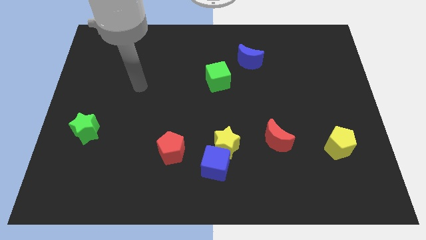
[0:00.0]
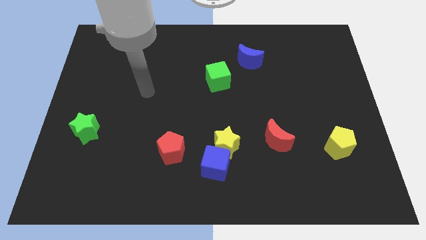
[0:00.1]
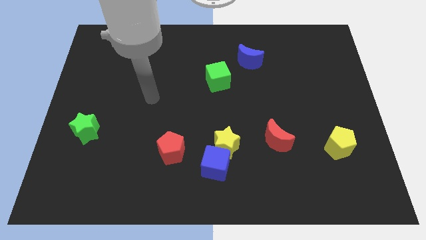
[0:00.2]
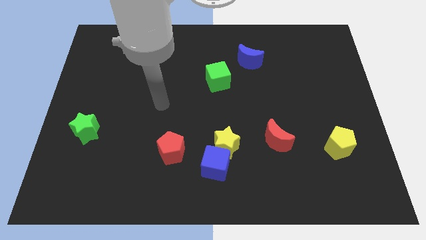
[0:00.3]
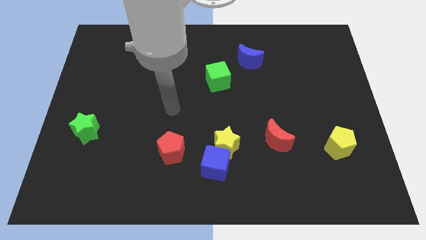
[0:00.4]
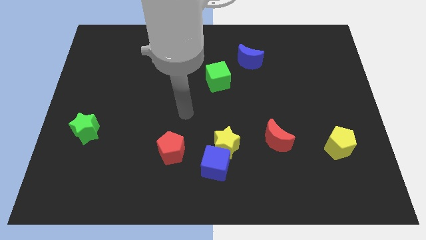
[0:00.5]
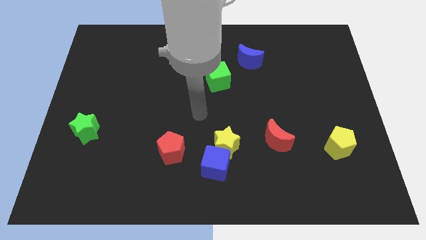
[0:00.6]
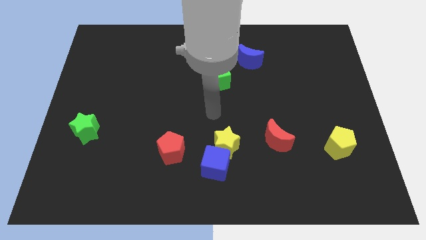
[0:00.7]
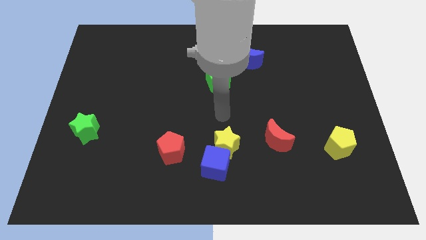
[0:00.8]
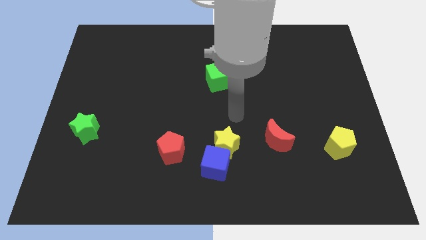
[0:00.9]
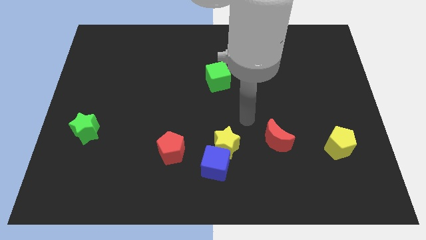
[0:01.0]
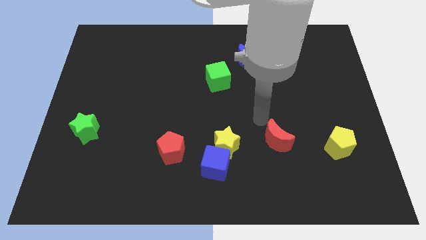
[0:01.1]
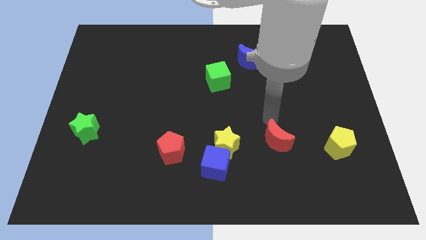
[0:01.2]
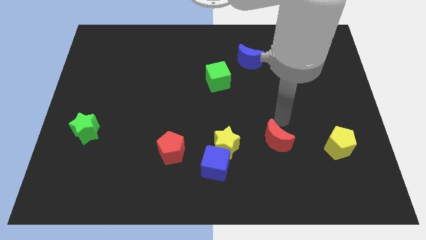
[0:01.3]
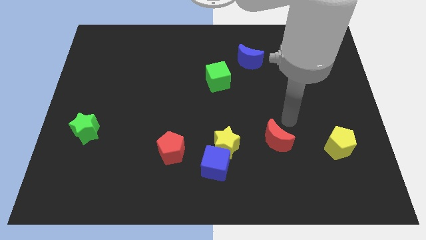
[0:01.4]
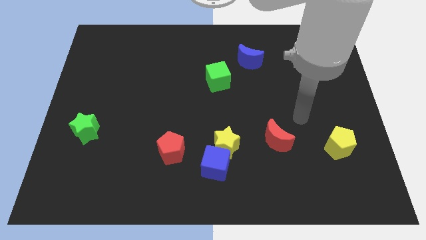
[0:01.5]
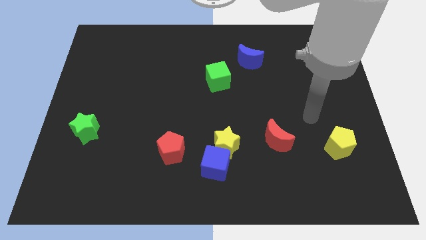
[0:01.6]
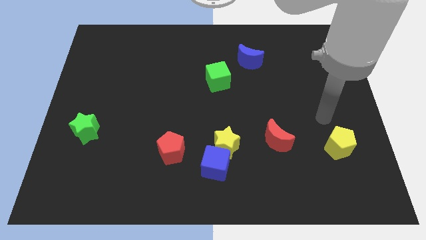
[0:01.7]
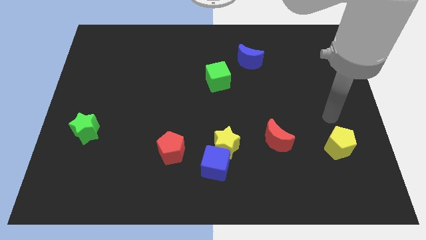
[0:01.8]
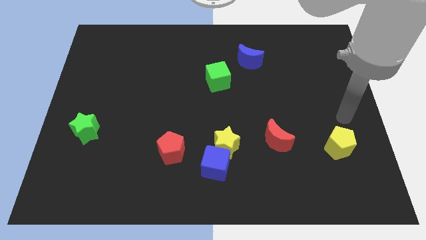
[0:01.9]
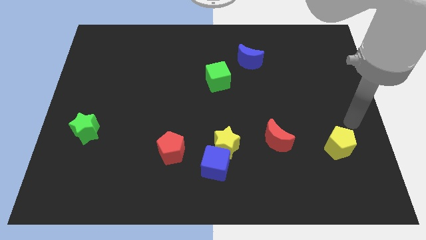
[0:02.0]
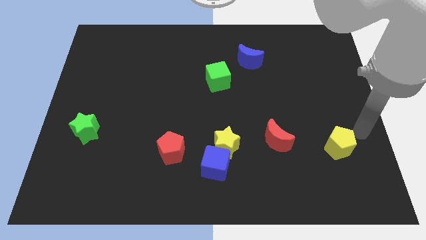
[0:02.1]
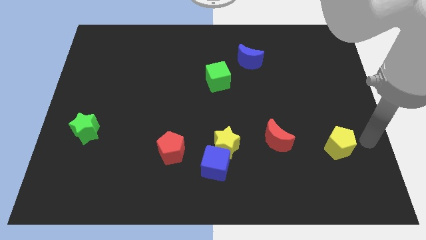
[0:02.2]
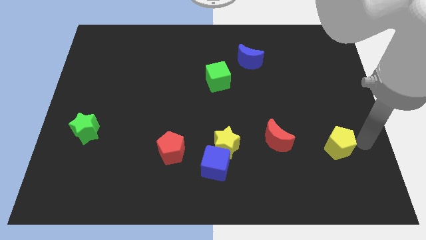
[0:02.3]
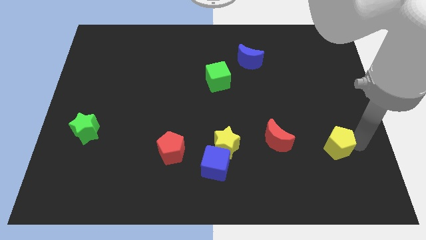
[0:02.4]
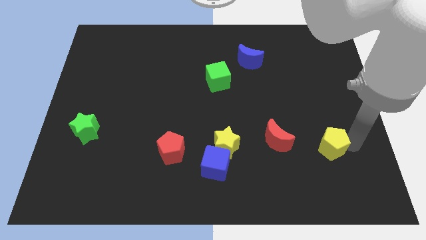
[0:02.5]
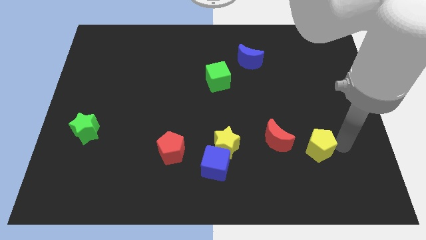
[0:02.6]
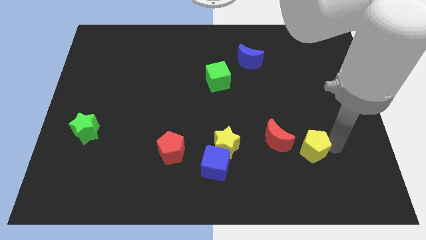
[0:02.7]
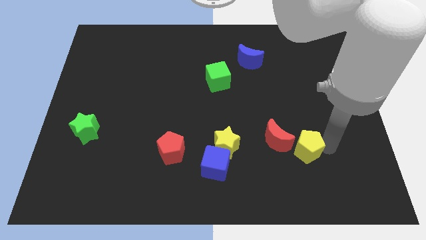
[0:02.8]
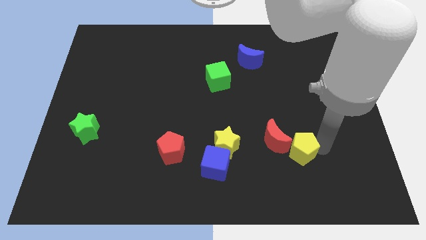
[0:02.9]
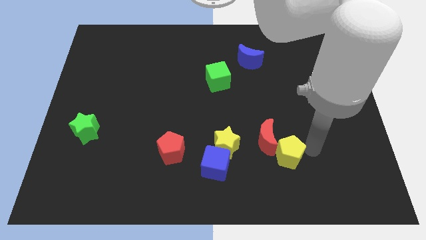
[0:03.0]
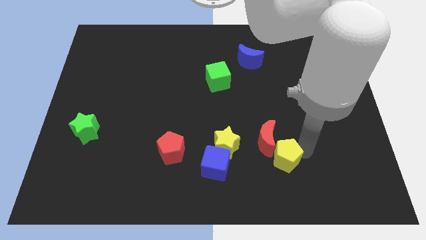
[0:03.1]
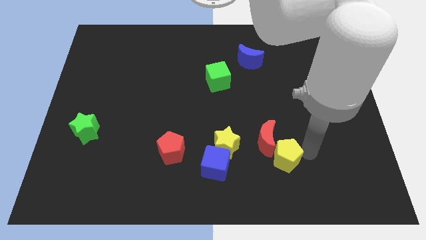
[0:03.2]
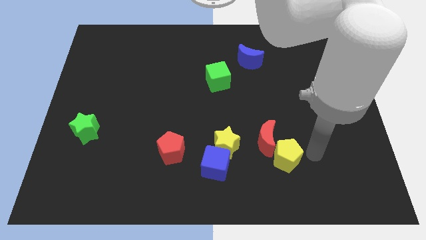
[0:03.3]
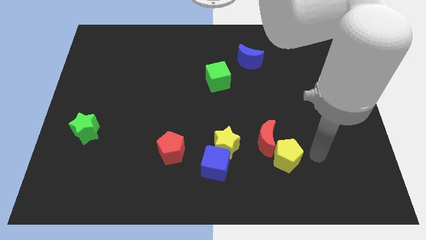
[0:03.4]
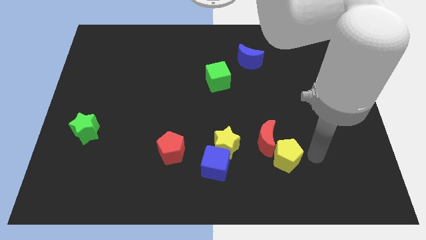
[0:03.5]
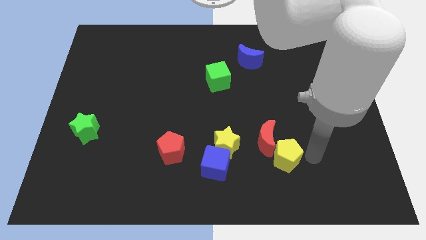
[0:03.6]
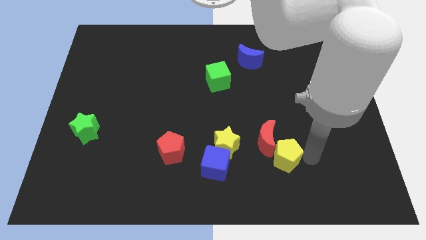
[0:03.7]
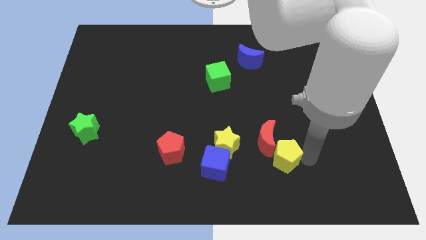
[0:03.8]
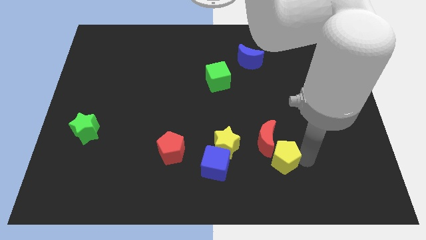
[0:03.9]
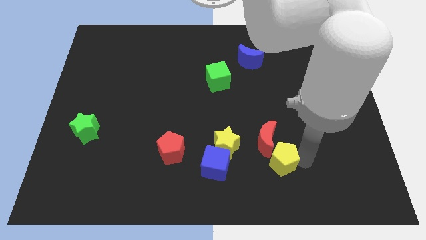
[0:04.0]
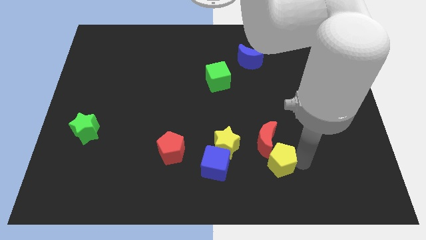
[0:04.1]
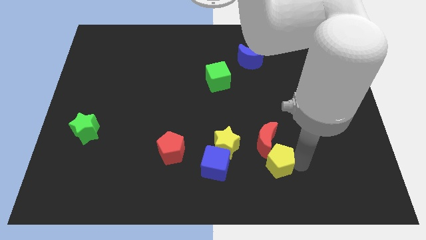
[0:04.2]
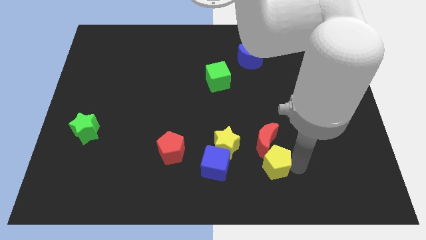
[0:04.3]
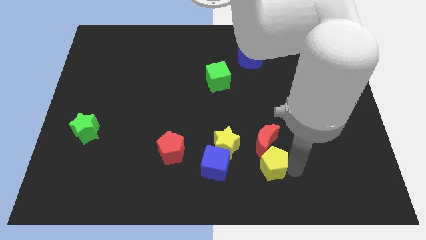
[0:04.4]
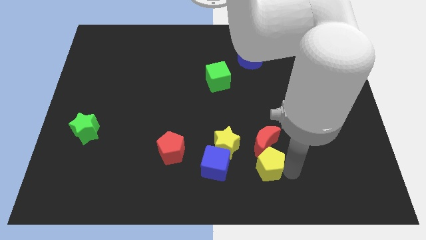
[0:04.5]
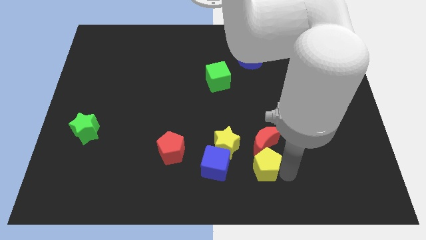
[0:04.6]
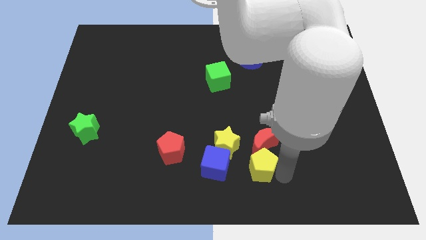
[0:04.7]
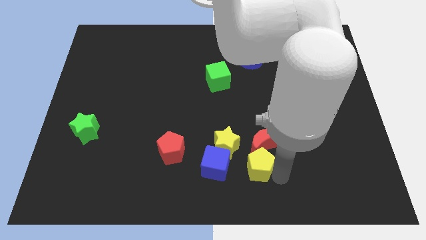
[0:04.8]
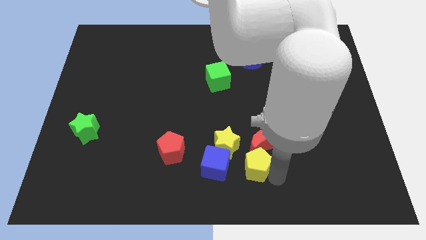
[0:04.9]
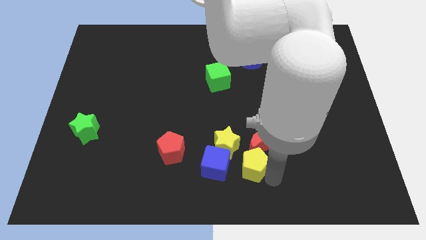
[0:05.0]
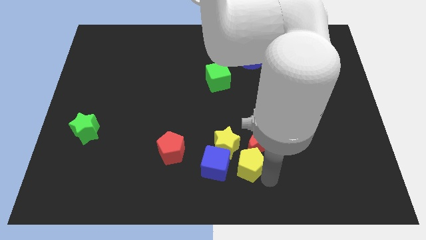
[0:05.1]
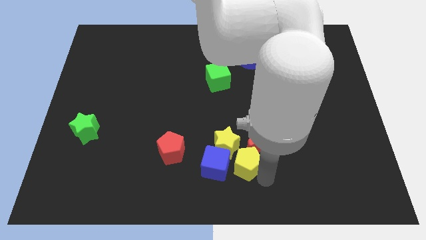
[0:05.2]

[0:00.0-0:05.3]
move the yellow pentagon to the top right of the blue cube

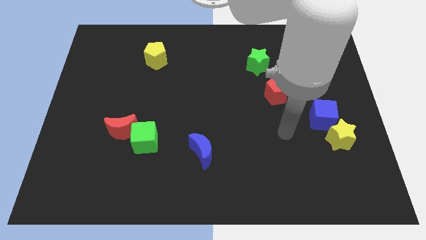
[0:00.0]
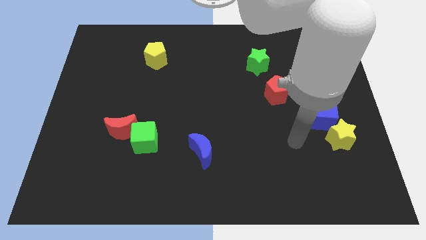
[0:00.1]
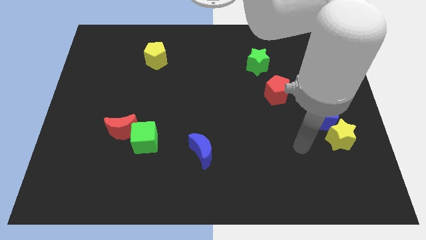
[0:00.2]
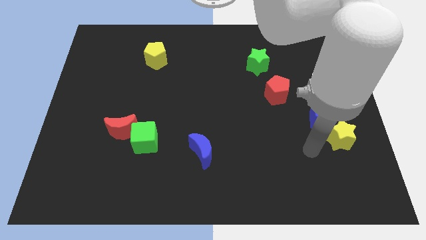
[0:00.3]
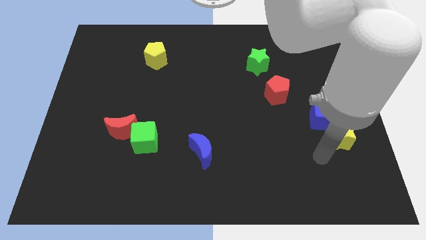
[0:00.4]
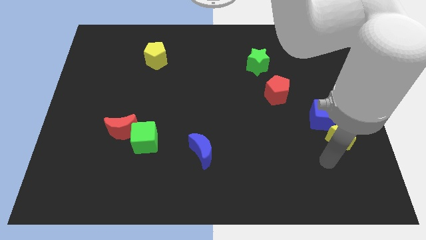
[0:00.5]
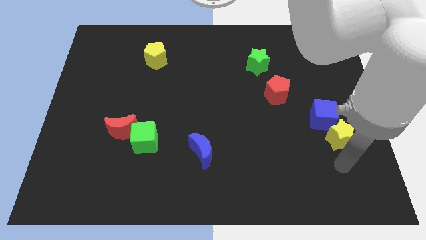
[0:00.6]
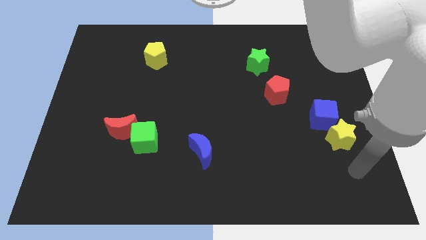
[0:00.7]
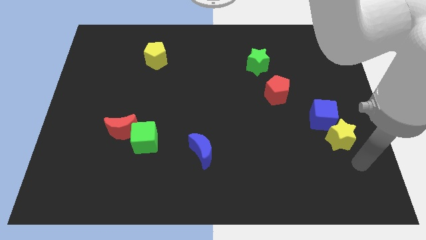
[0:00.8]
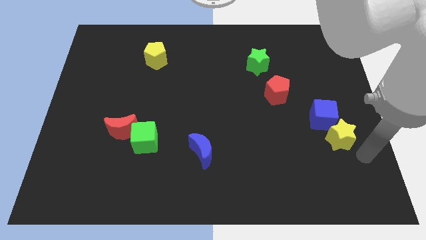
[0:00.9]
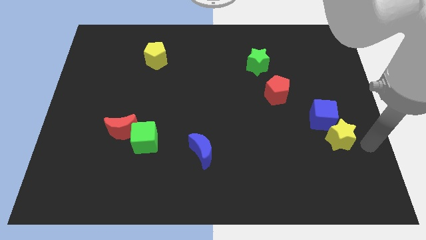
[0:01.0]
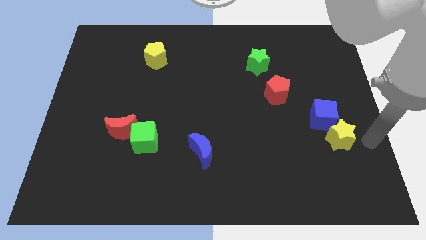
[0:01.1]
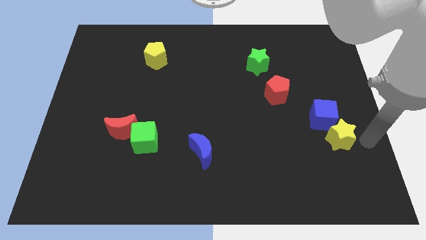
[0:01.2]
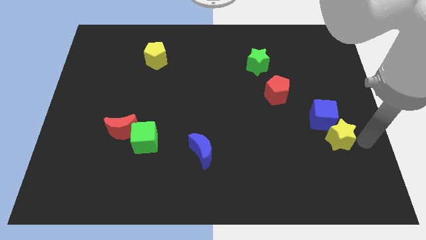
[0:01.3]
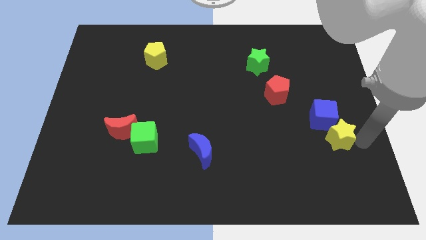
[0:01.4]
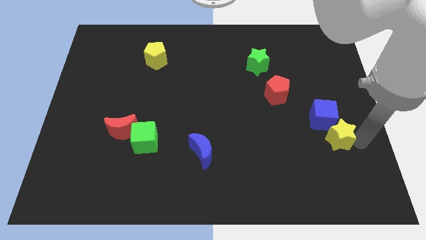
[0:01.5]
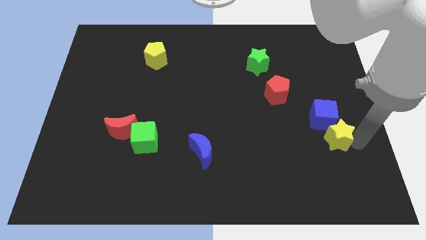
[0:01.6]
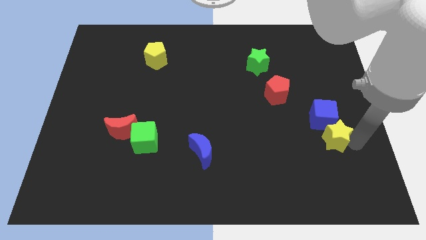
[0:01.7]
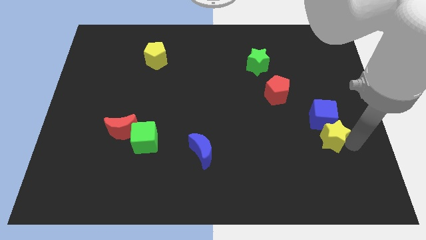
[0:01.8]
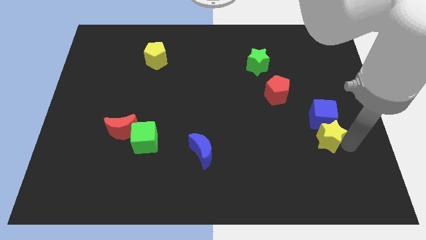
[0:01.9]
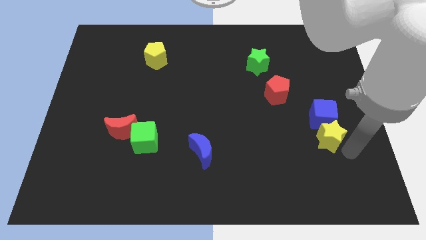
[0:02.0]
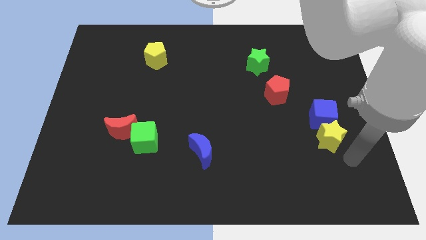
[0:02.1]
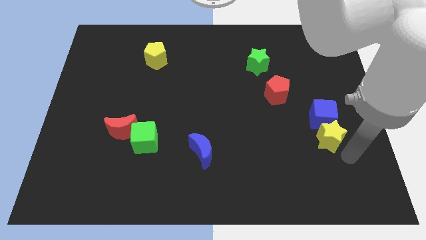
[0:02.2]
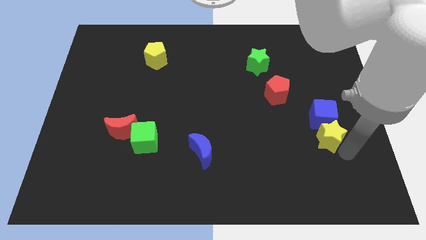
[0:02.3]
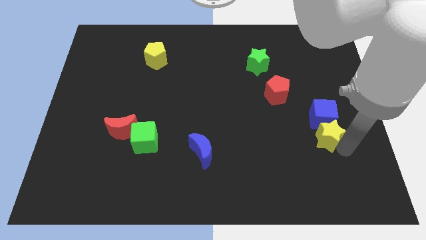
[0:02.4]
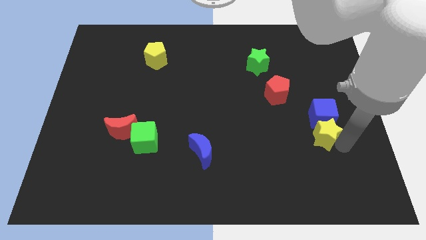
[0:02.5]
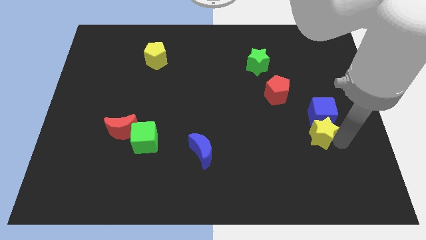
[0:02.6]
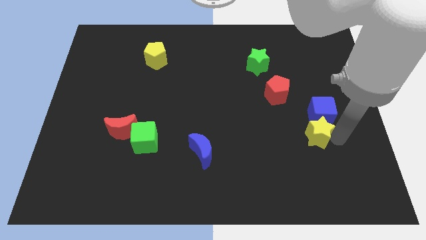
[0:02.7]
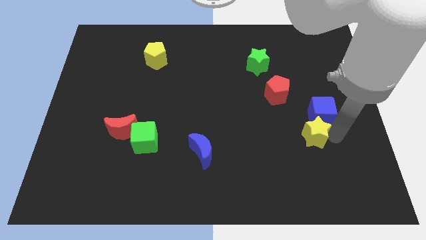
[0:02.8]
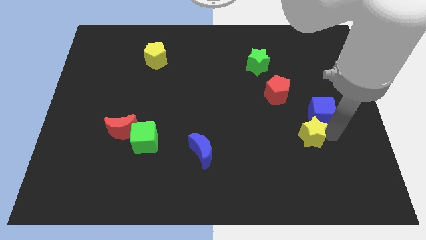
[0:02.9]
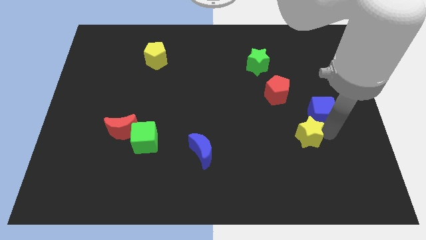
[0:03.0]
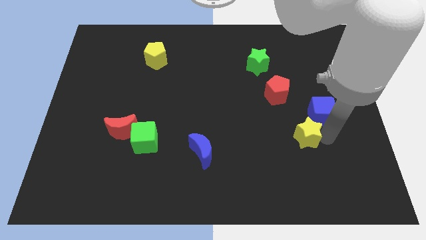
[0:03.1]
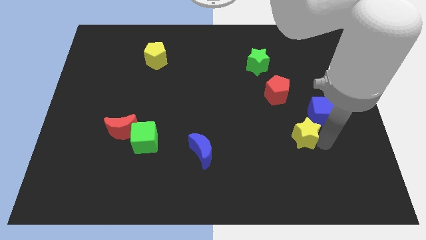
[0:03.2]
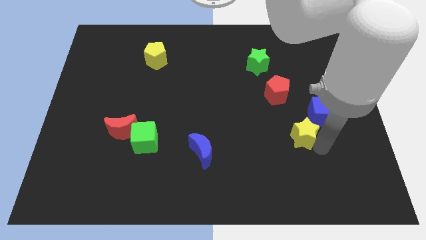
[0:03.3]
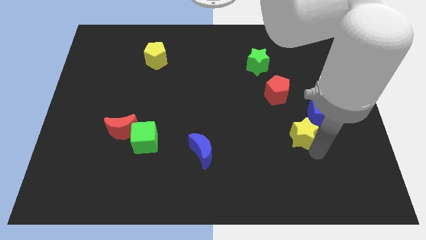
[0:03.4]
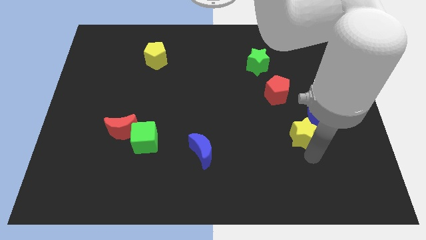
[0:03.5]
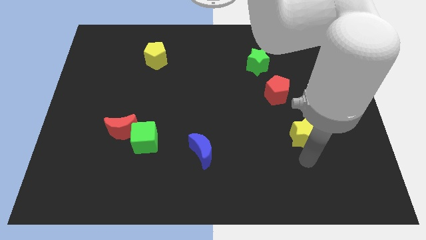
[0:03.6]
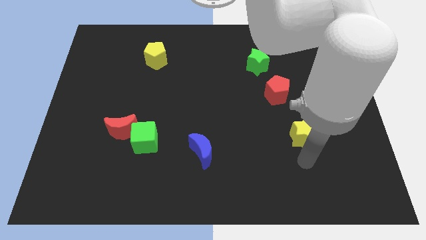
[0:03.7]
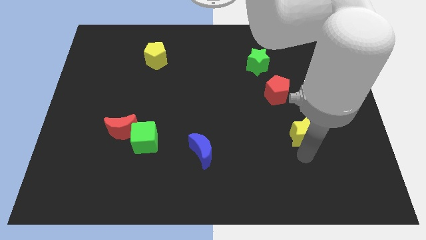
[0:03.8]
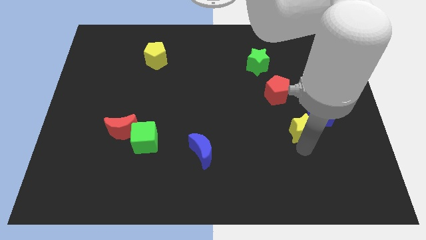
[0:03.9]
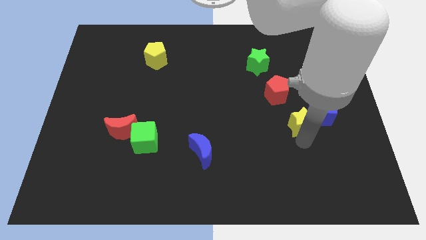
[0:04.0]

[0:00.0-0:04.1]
put the yellow star diagonally down and to the right of the red pentagon
